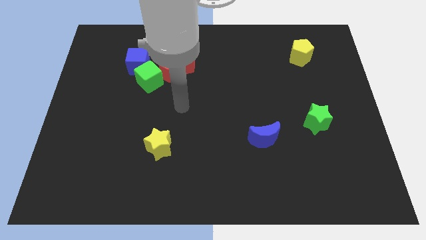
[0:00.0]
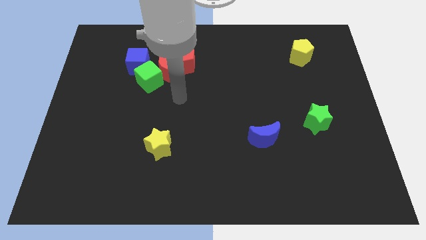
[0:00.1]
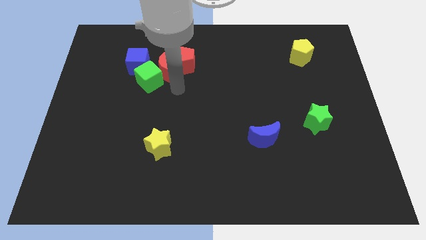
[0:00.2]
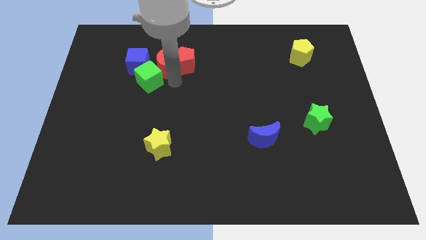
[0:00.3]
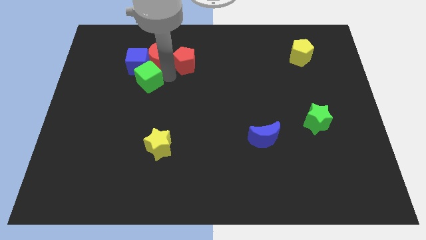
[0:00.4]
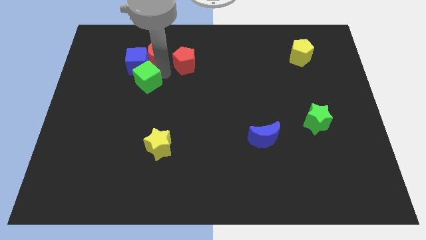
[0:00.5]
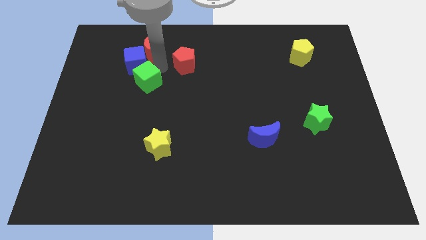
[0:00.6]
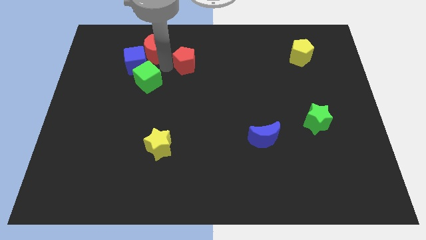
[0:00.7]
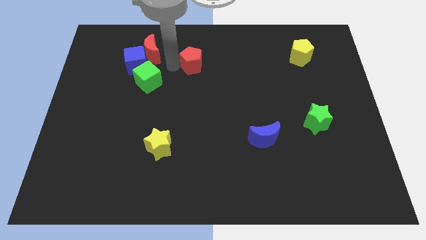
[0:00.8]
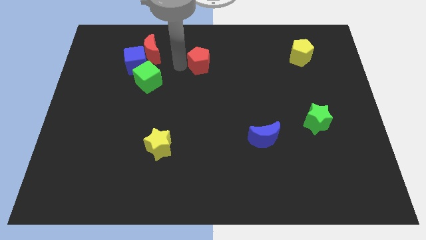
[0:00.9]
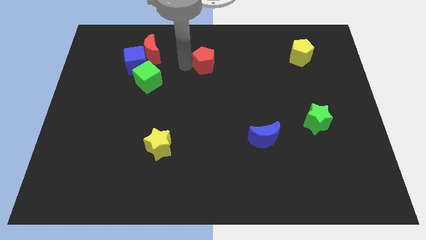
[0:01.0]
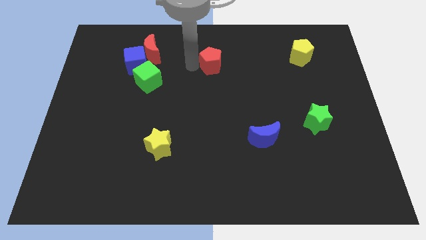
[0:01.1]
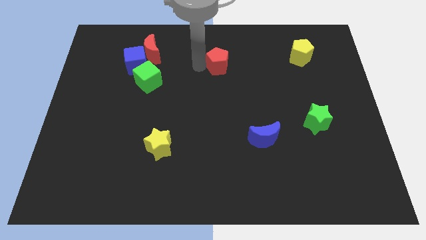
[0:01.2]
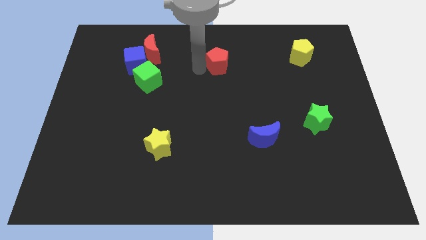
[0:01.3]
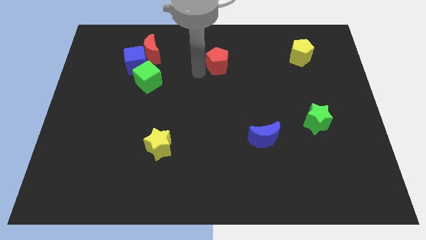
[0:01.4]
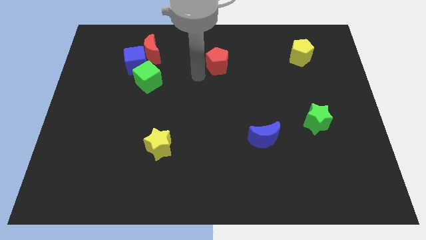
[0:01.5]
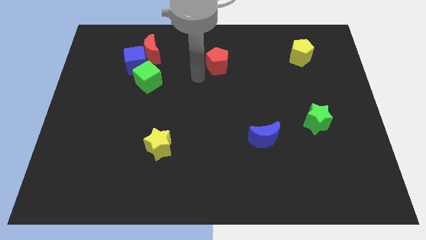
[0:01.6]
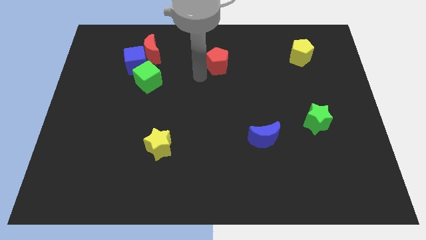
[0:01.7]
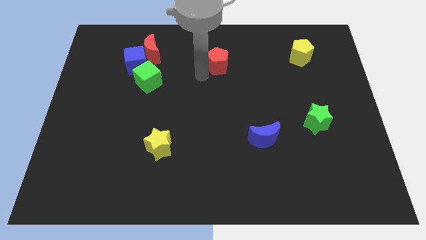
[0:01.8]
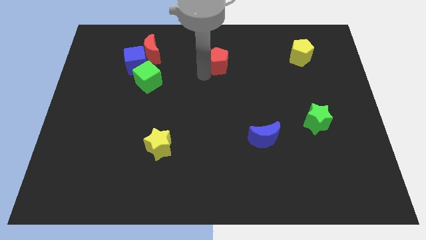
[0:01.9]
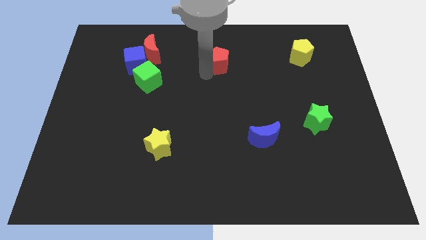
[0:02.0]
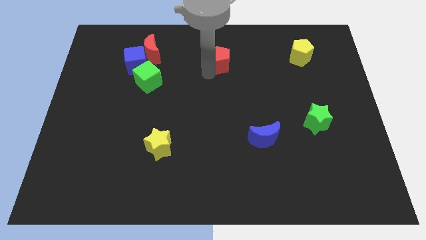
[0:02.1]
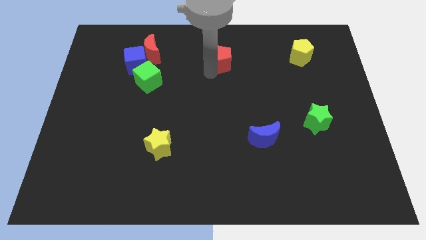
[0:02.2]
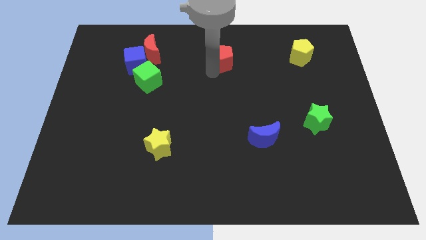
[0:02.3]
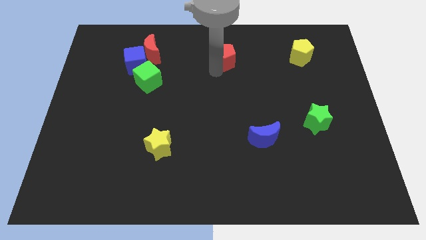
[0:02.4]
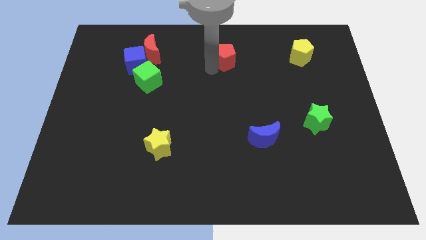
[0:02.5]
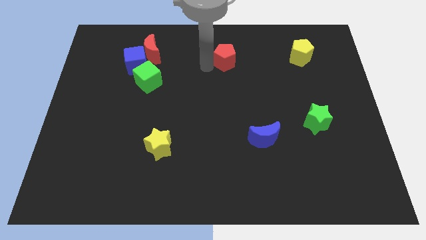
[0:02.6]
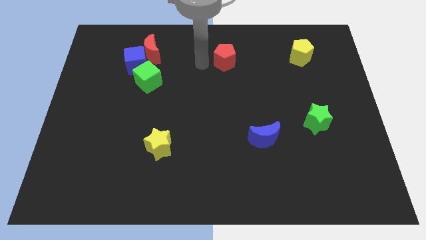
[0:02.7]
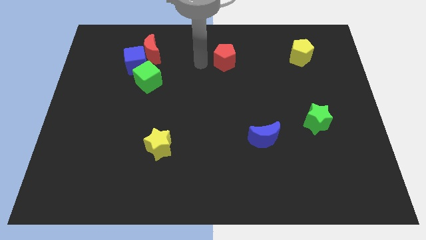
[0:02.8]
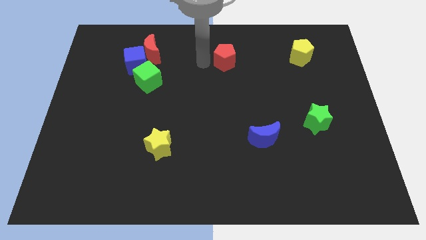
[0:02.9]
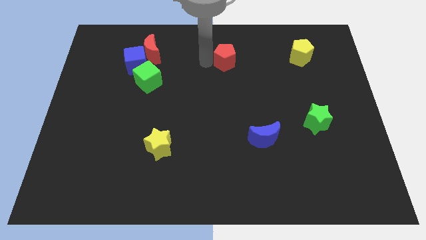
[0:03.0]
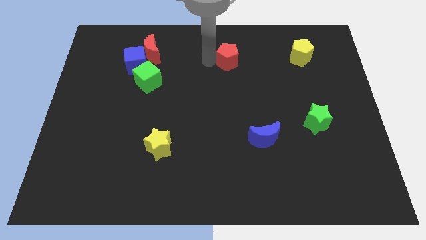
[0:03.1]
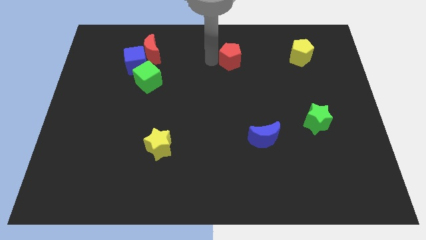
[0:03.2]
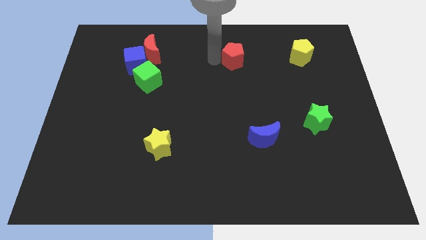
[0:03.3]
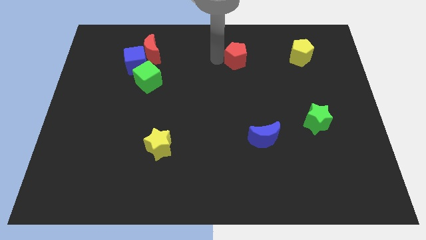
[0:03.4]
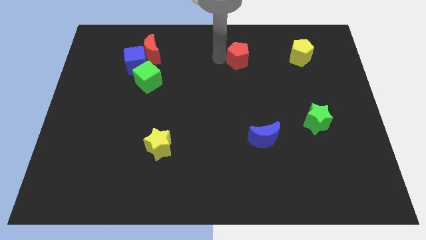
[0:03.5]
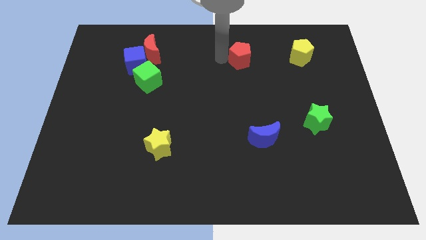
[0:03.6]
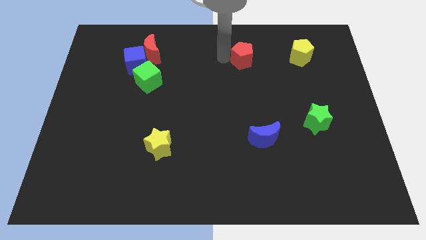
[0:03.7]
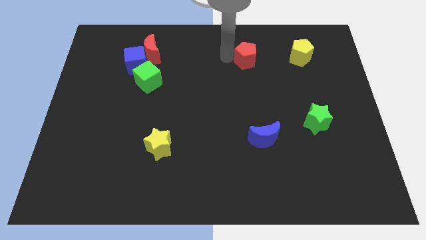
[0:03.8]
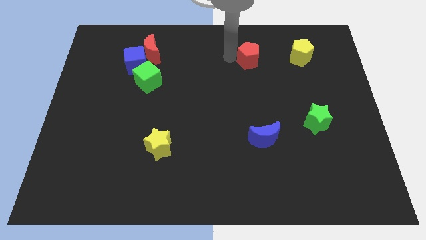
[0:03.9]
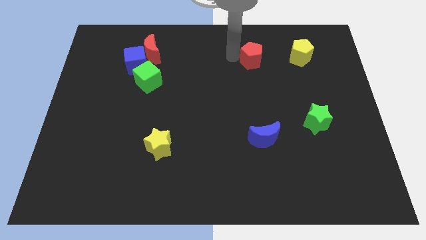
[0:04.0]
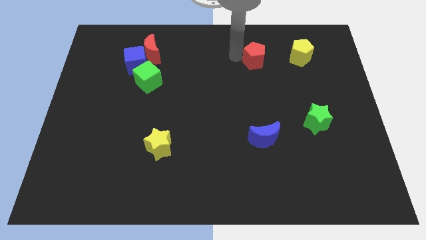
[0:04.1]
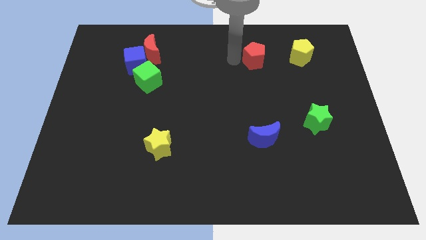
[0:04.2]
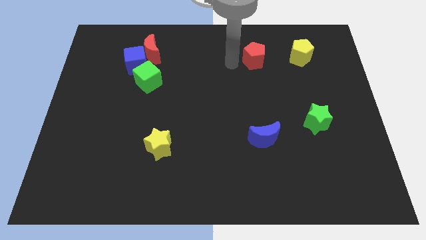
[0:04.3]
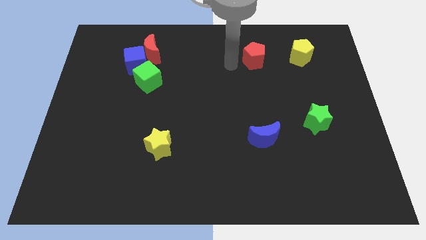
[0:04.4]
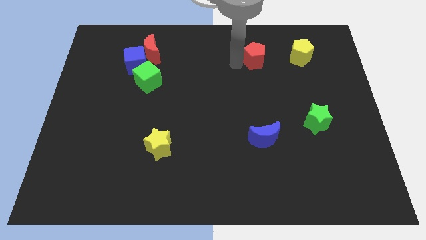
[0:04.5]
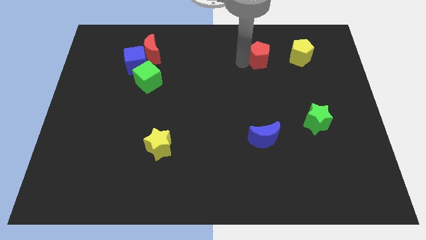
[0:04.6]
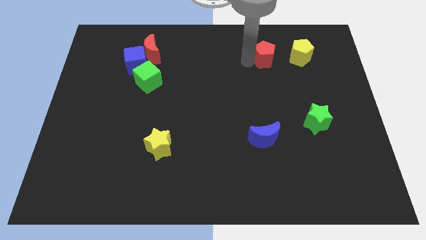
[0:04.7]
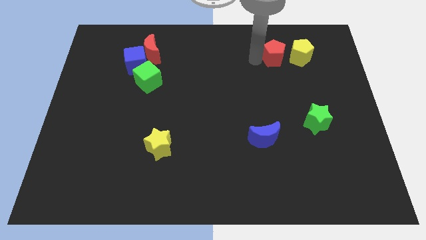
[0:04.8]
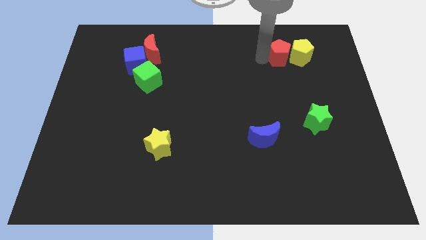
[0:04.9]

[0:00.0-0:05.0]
move the red pentagon to the yellow pentagon

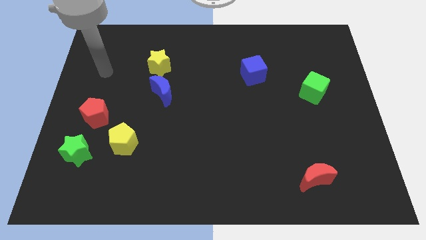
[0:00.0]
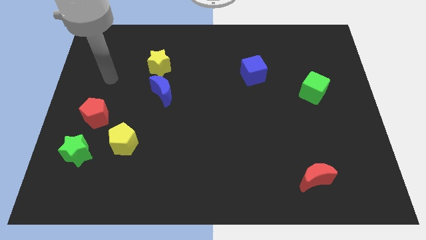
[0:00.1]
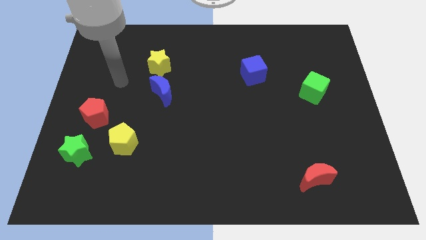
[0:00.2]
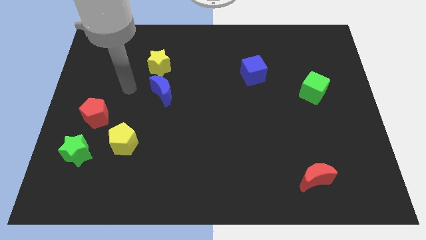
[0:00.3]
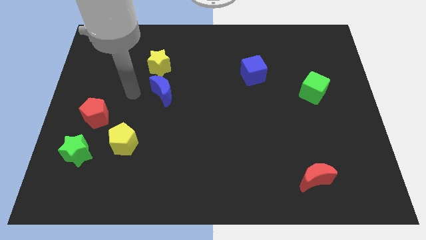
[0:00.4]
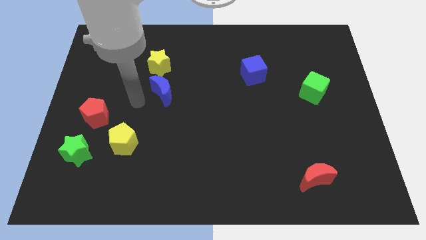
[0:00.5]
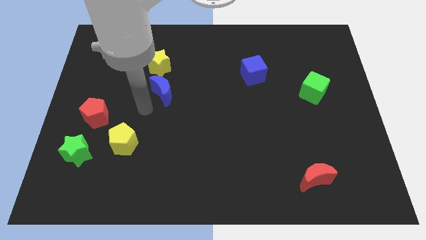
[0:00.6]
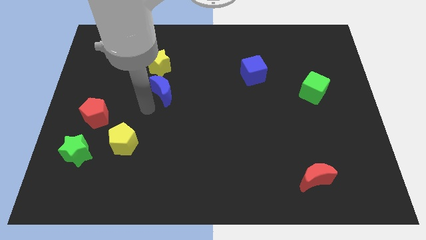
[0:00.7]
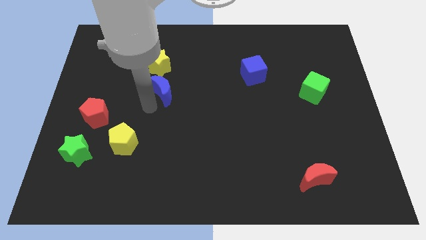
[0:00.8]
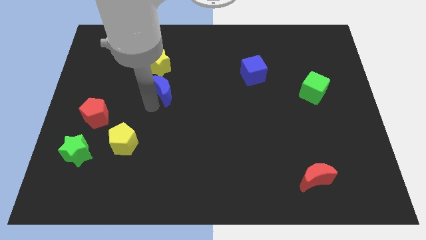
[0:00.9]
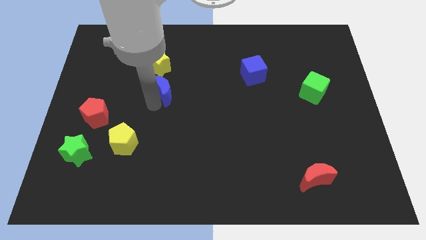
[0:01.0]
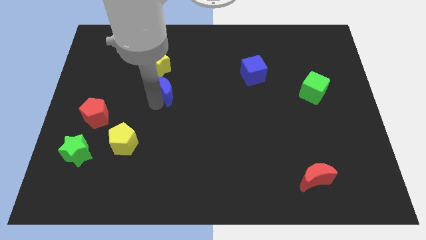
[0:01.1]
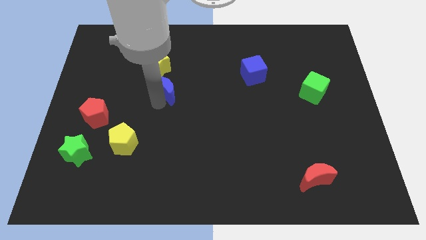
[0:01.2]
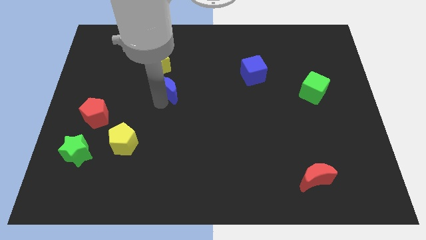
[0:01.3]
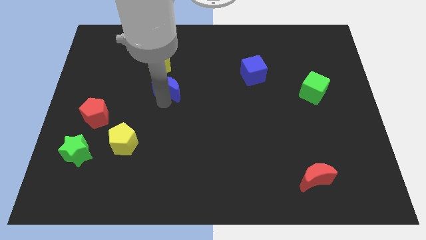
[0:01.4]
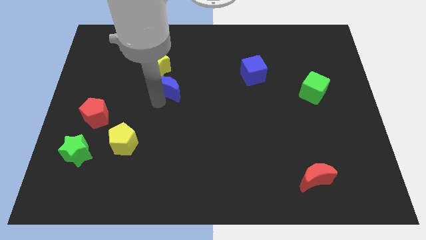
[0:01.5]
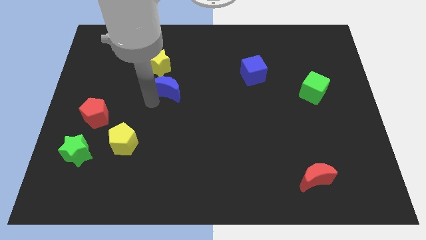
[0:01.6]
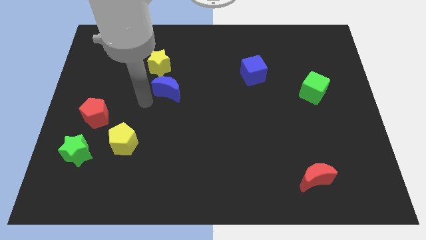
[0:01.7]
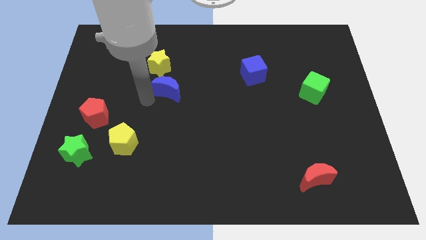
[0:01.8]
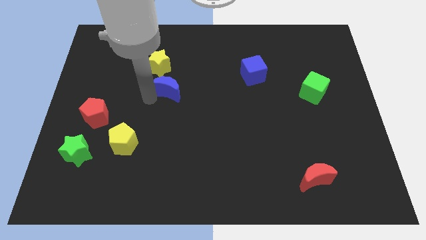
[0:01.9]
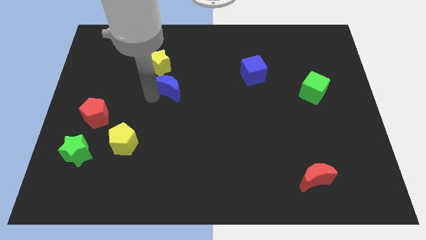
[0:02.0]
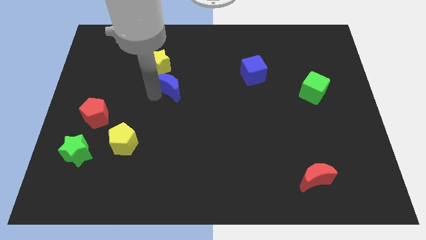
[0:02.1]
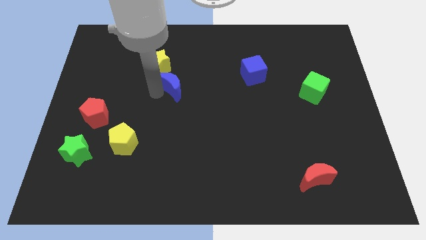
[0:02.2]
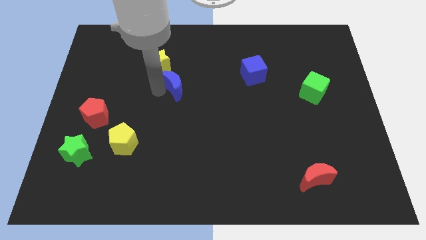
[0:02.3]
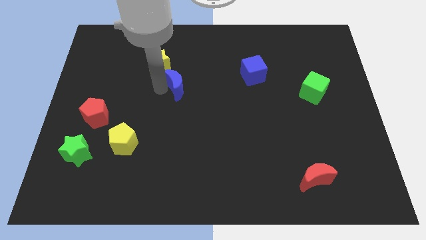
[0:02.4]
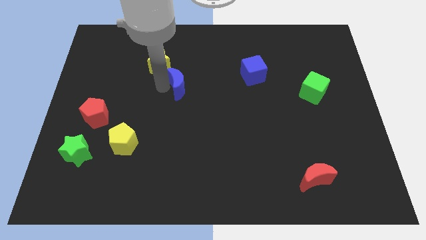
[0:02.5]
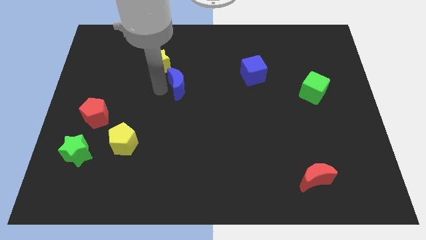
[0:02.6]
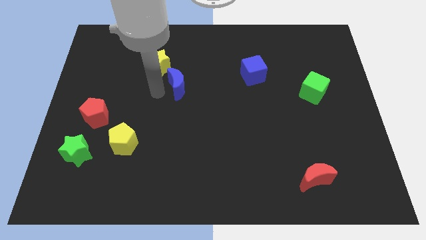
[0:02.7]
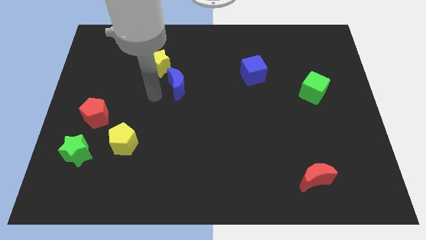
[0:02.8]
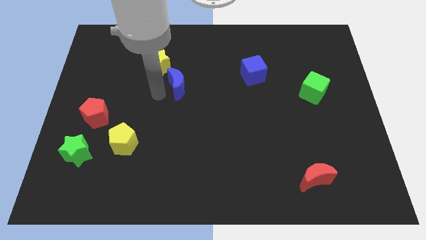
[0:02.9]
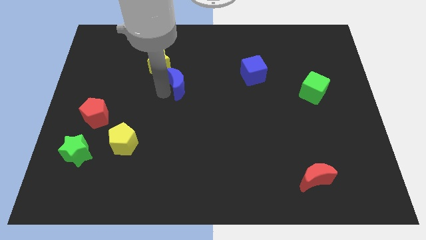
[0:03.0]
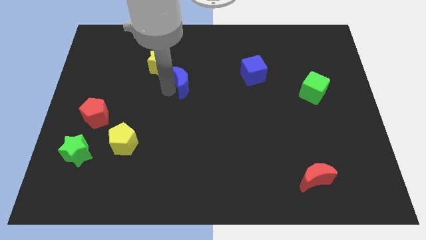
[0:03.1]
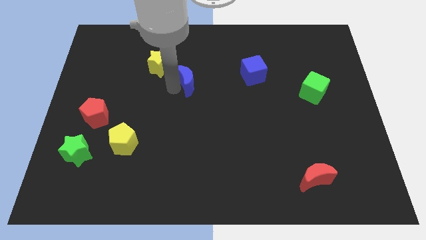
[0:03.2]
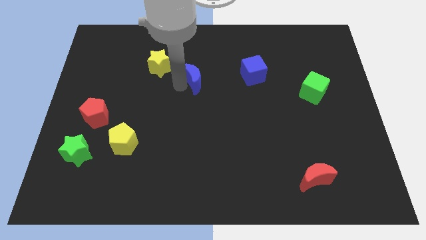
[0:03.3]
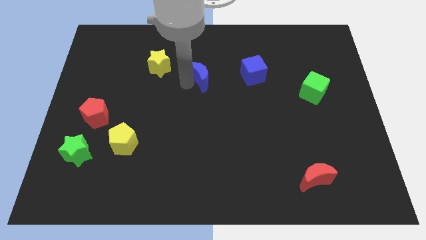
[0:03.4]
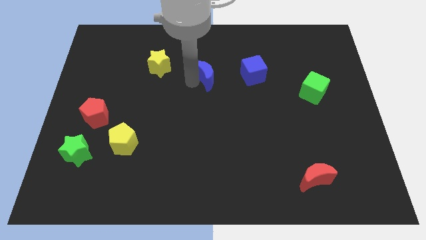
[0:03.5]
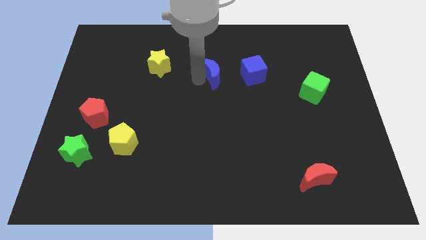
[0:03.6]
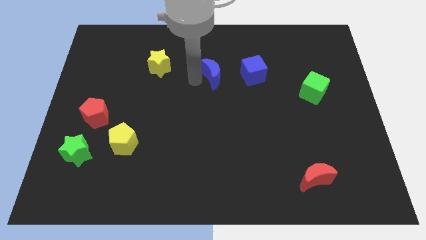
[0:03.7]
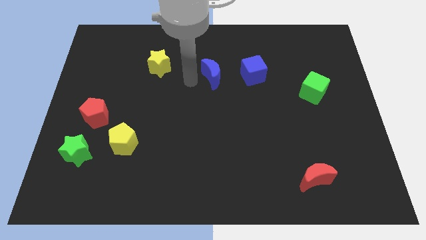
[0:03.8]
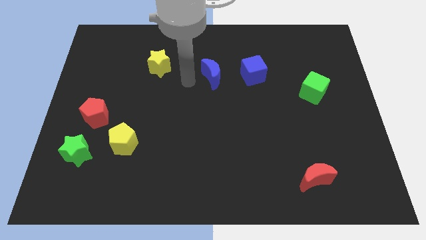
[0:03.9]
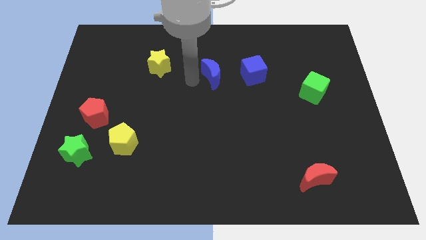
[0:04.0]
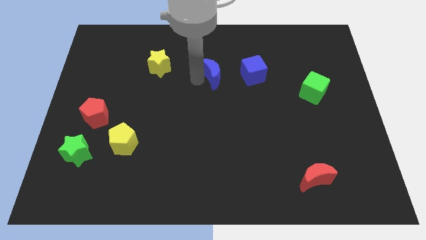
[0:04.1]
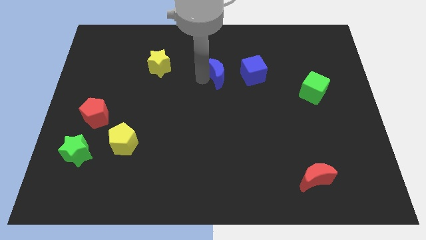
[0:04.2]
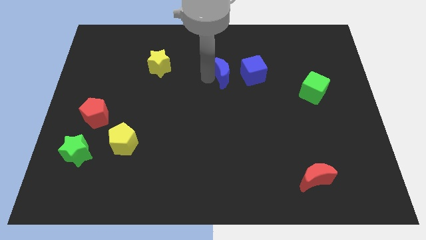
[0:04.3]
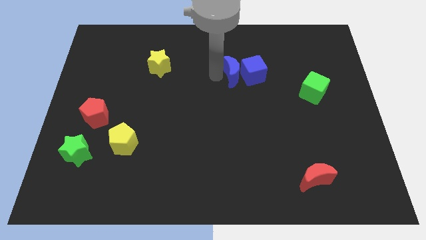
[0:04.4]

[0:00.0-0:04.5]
push the blue moon close to the blue cube
